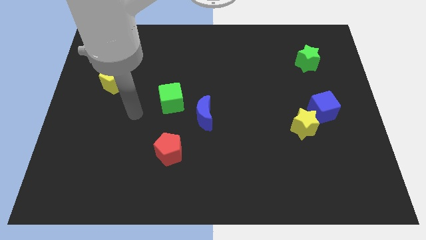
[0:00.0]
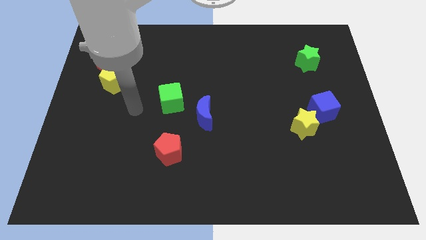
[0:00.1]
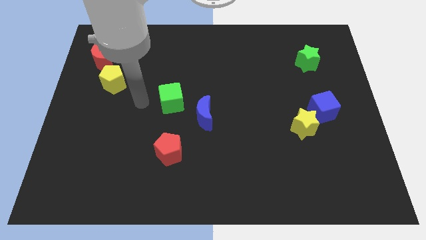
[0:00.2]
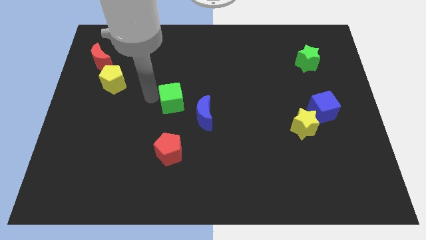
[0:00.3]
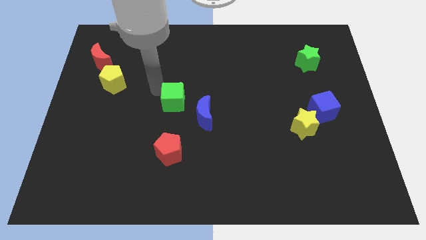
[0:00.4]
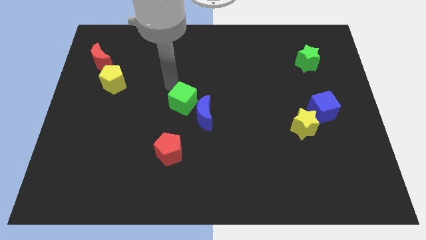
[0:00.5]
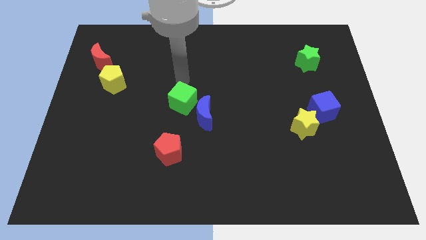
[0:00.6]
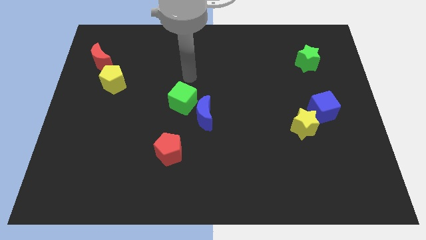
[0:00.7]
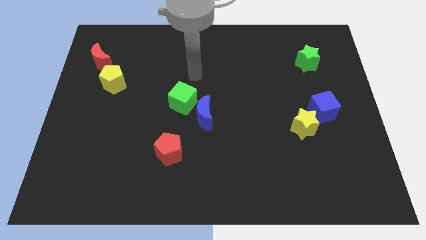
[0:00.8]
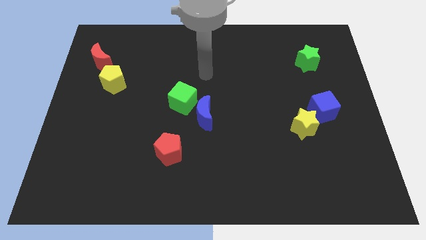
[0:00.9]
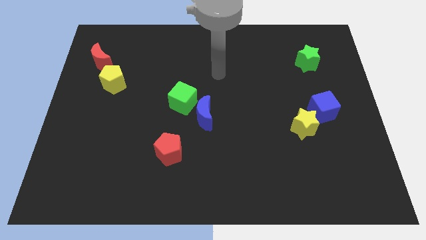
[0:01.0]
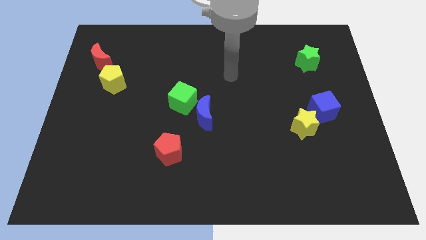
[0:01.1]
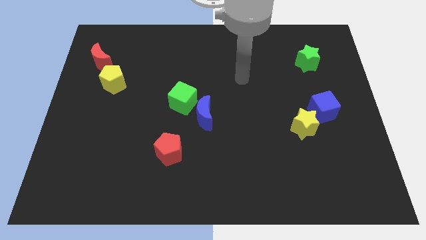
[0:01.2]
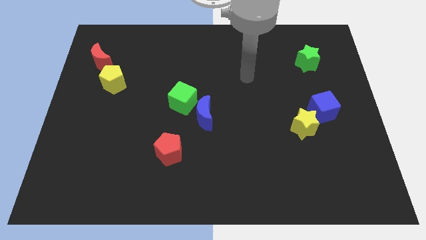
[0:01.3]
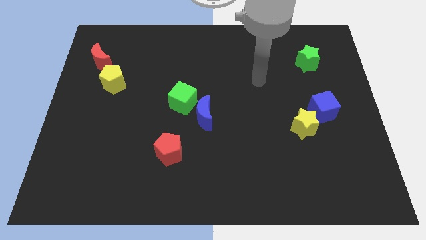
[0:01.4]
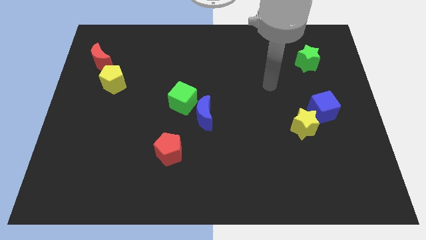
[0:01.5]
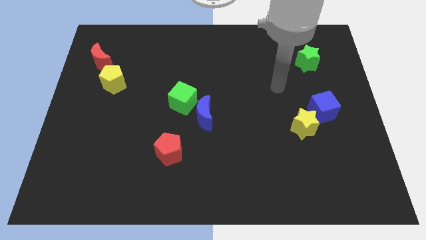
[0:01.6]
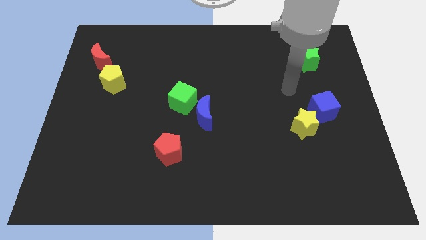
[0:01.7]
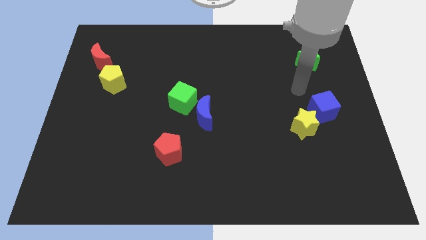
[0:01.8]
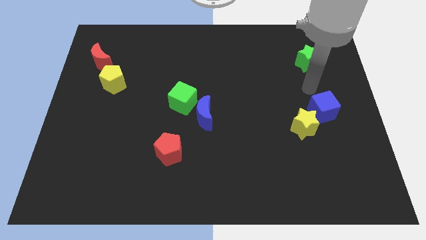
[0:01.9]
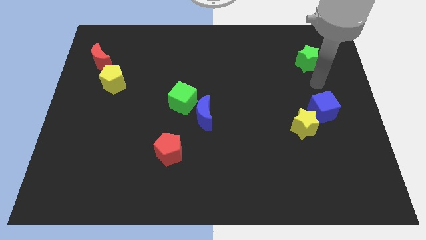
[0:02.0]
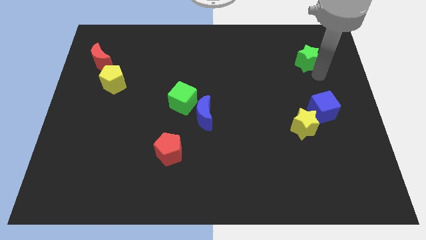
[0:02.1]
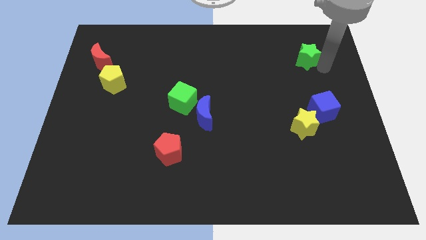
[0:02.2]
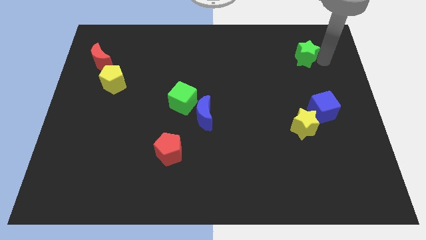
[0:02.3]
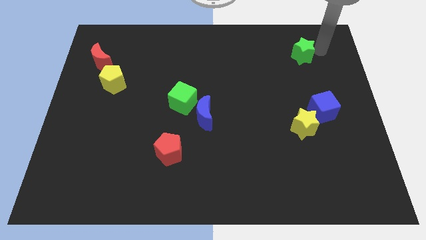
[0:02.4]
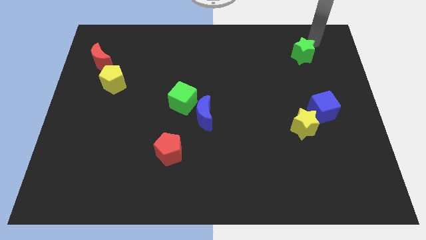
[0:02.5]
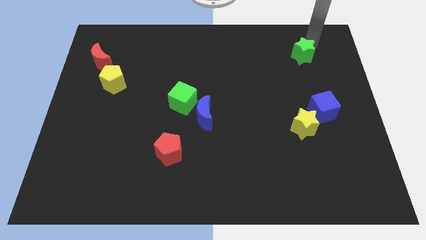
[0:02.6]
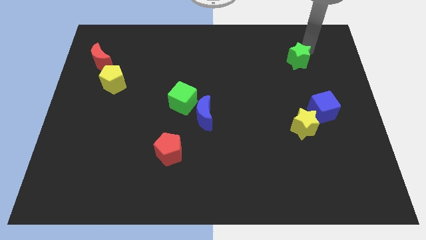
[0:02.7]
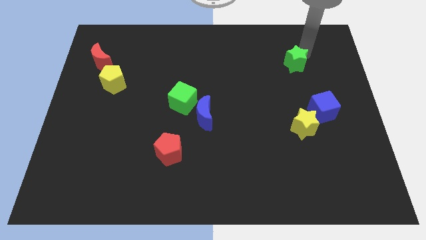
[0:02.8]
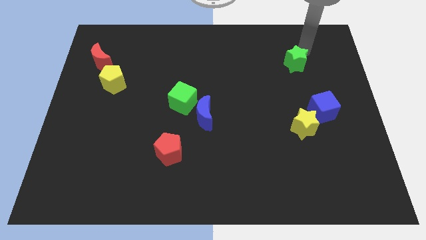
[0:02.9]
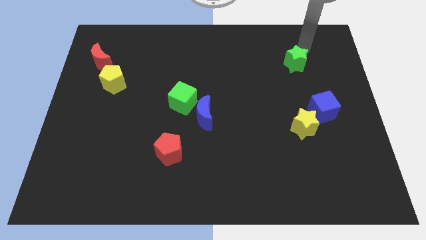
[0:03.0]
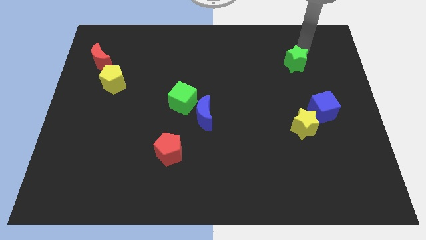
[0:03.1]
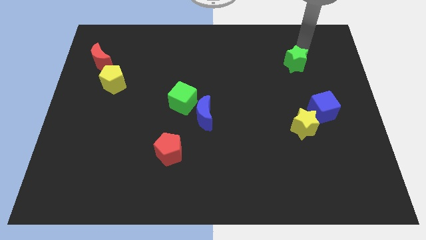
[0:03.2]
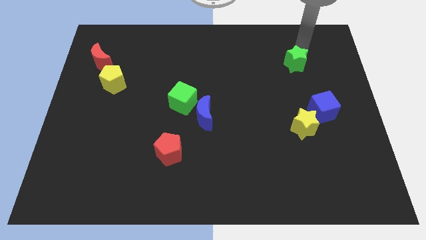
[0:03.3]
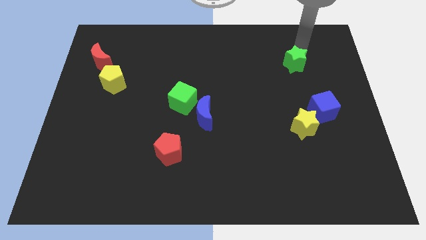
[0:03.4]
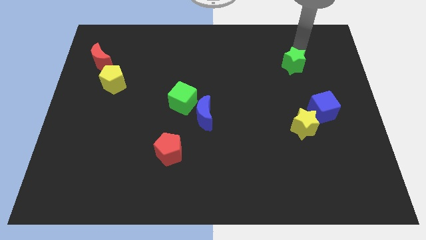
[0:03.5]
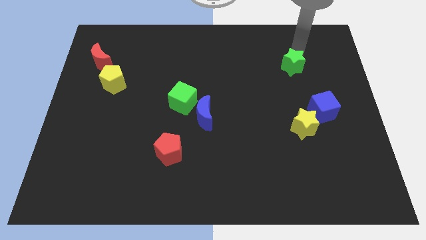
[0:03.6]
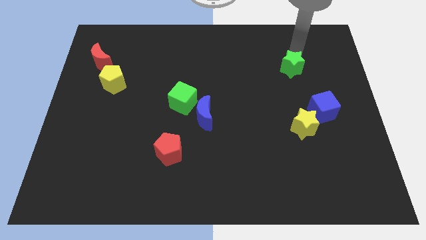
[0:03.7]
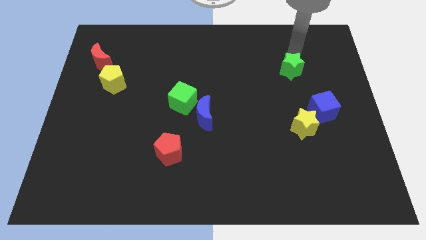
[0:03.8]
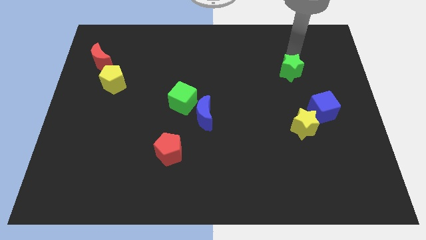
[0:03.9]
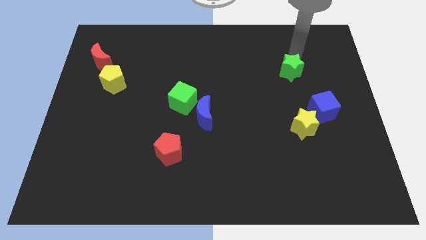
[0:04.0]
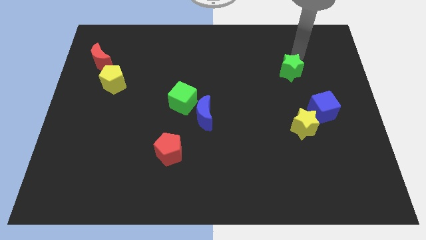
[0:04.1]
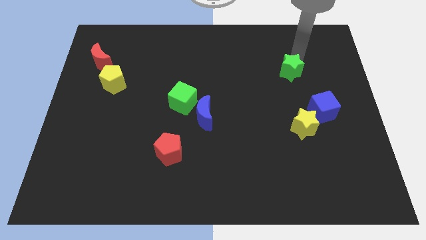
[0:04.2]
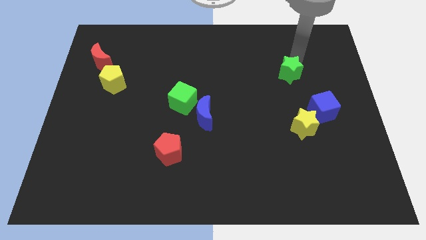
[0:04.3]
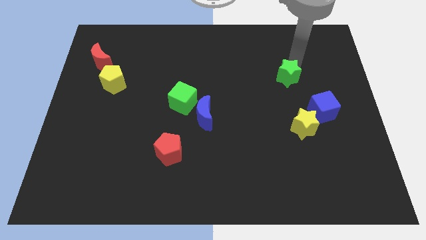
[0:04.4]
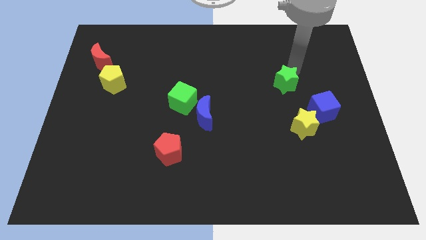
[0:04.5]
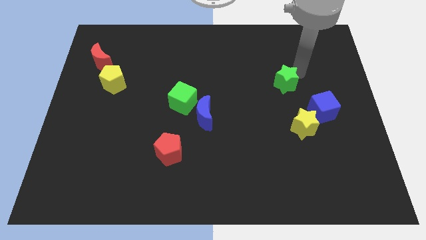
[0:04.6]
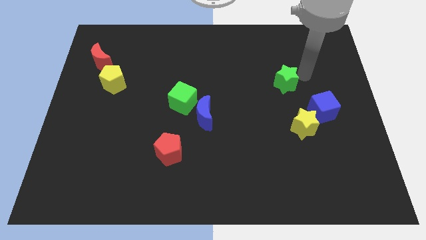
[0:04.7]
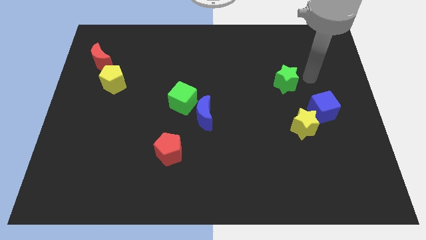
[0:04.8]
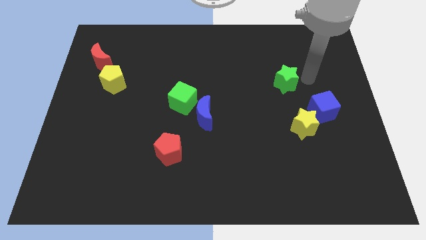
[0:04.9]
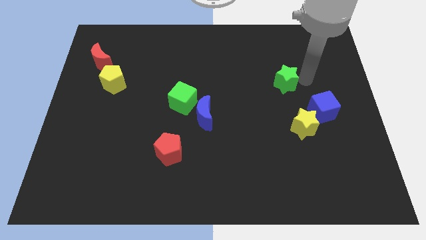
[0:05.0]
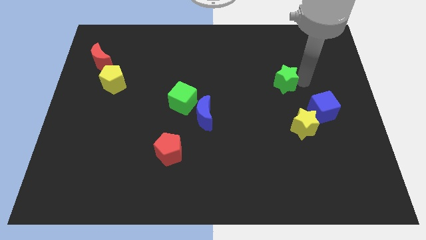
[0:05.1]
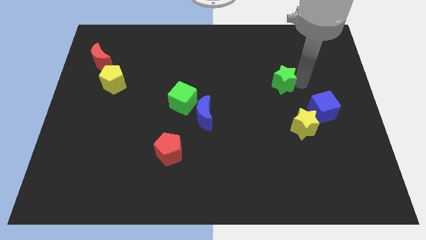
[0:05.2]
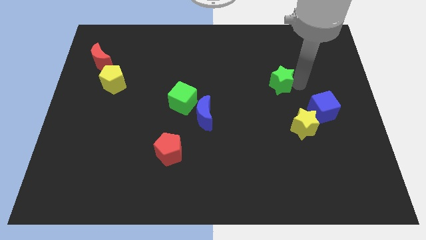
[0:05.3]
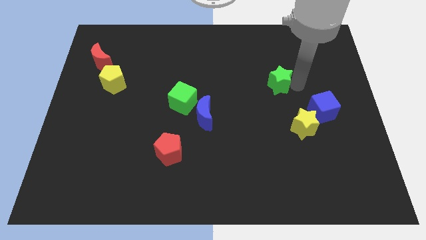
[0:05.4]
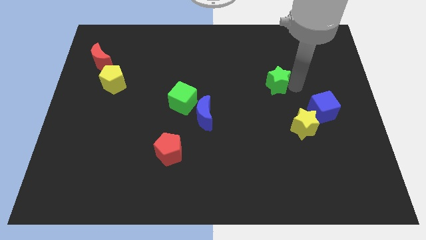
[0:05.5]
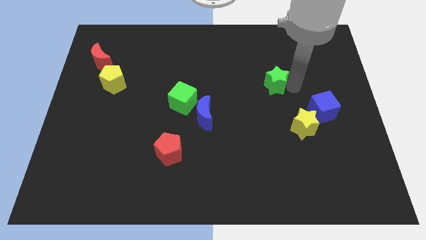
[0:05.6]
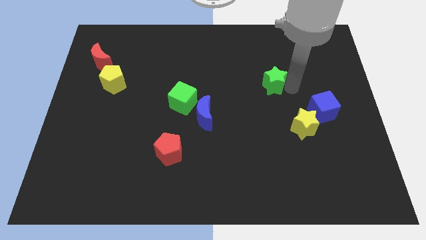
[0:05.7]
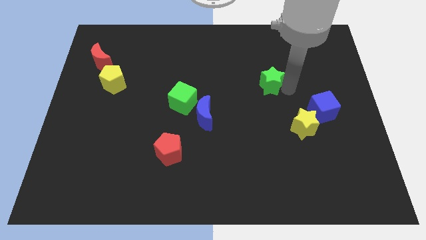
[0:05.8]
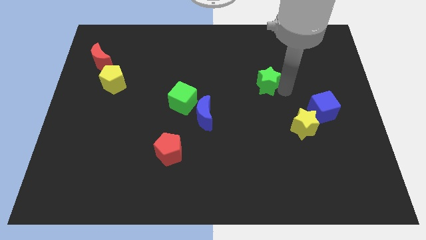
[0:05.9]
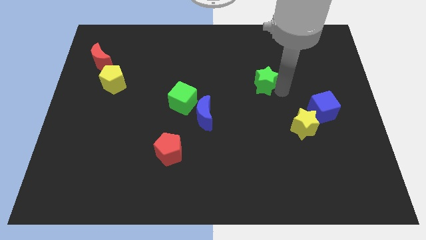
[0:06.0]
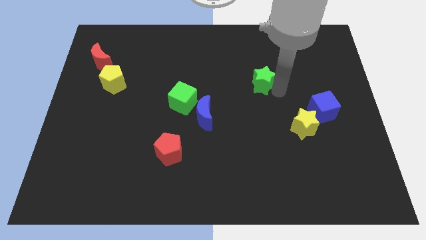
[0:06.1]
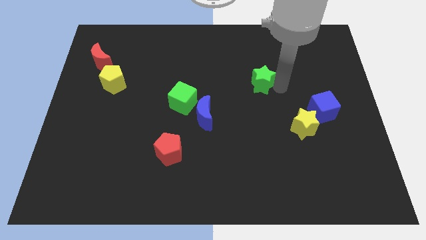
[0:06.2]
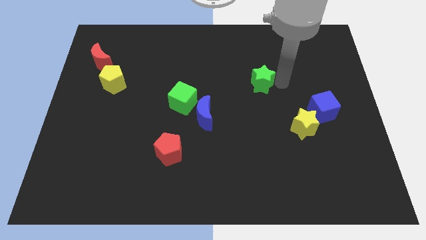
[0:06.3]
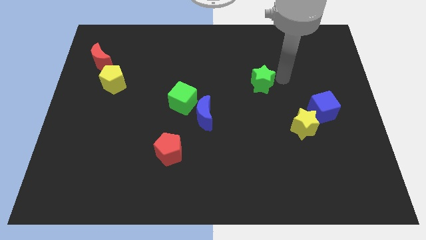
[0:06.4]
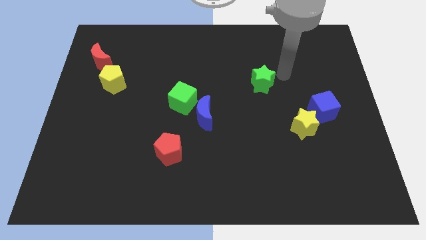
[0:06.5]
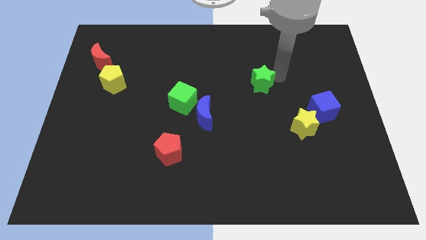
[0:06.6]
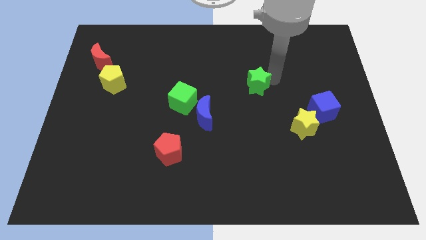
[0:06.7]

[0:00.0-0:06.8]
put the green star to the center of the board
